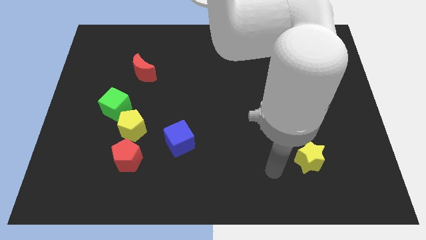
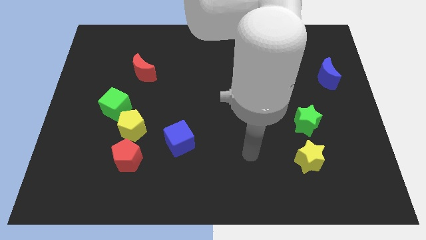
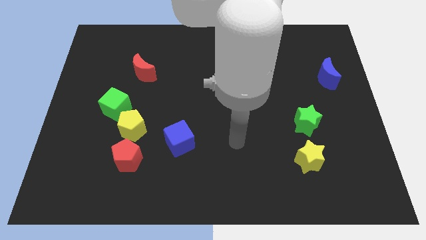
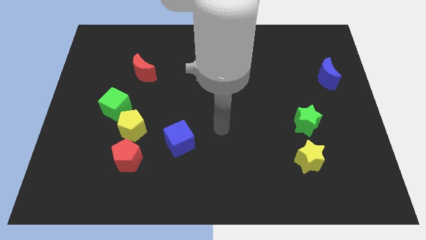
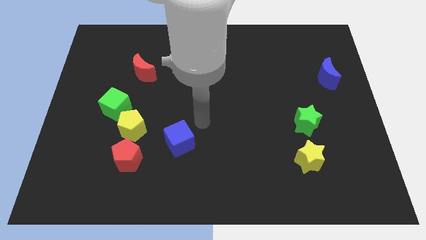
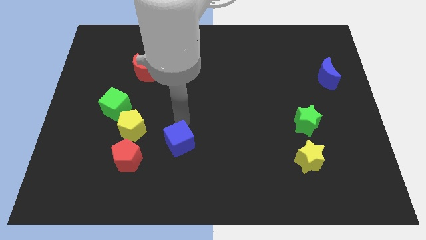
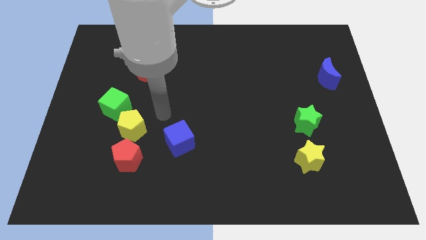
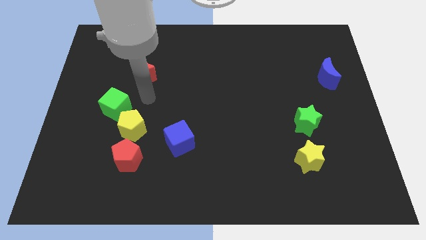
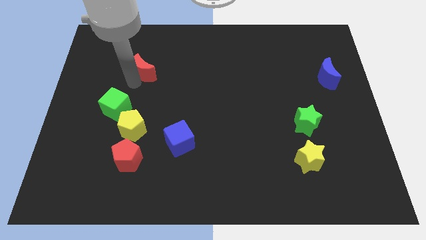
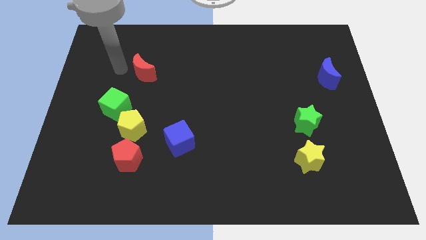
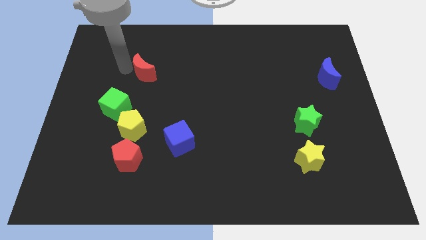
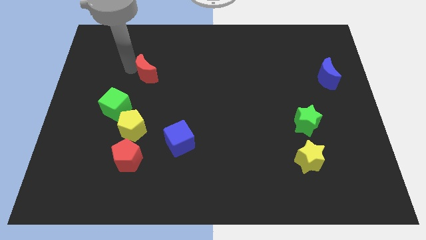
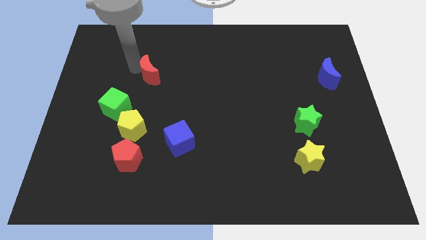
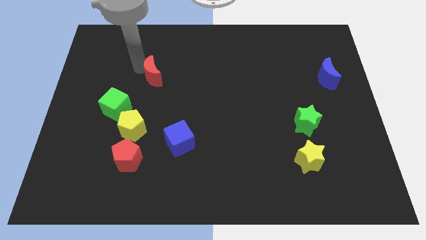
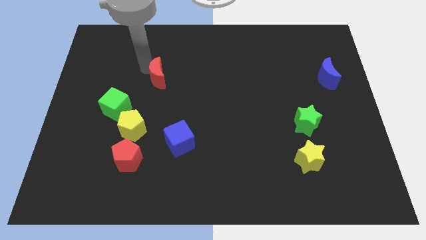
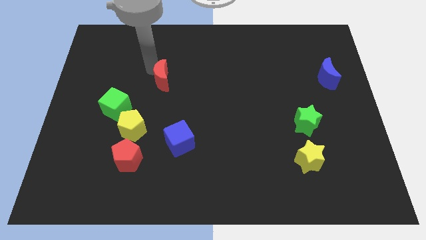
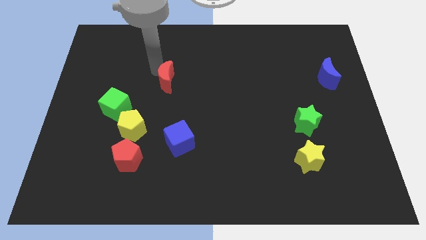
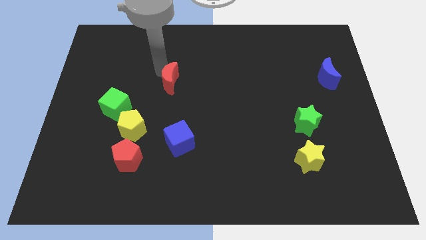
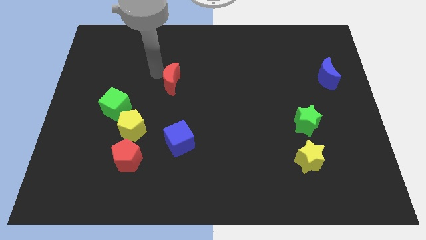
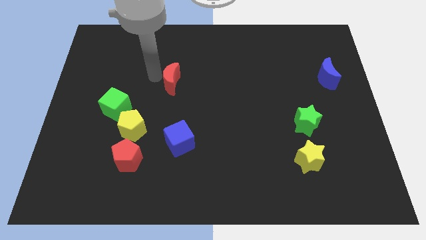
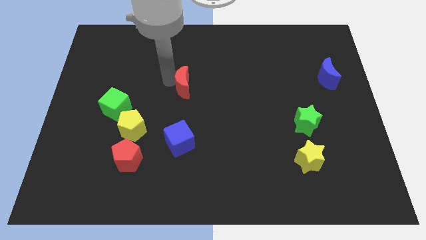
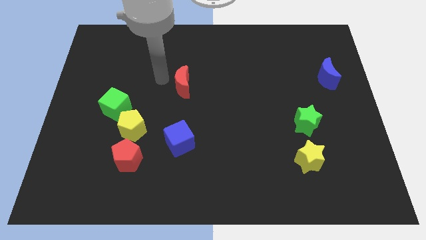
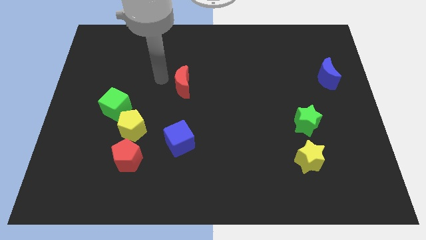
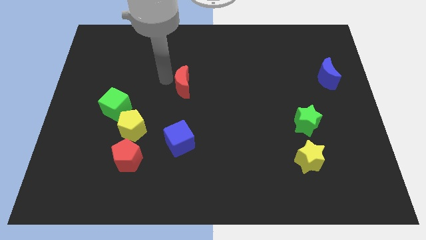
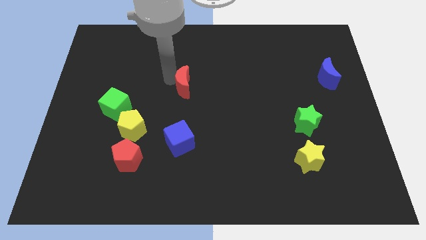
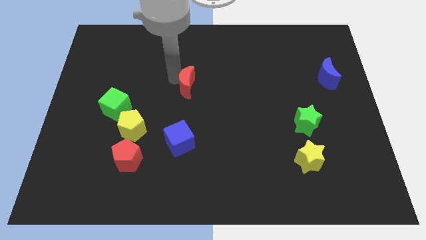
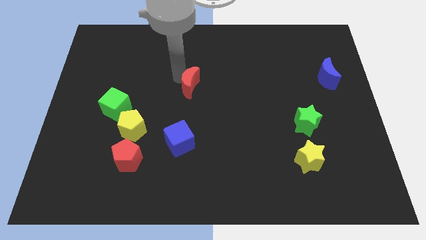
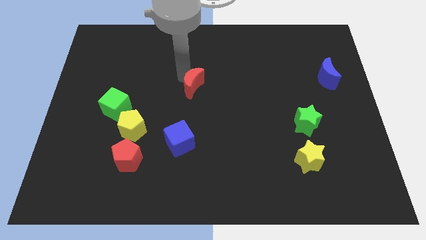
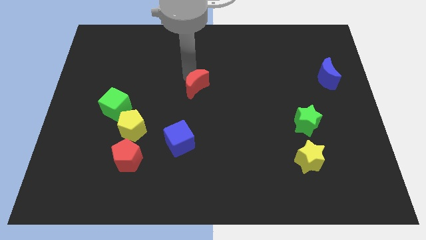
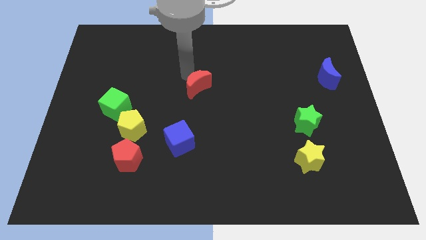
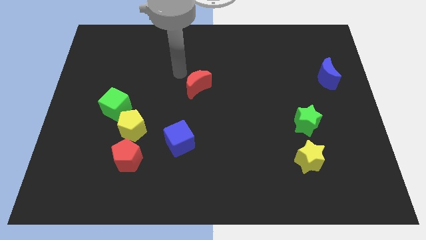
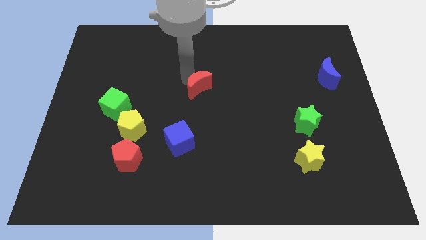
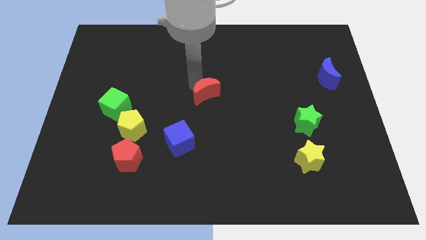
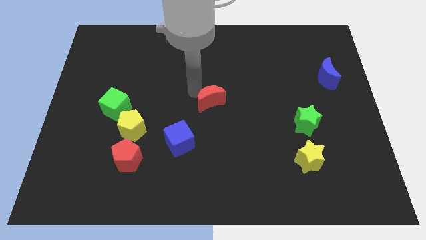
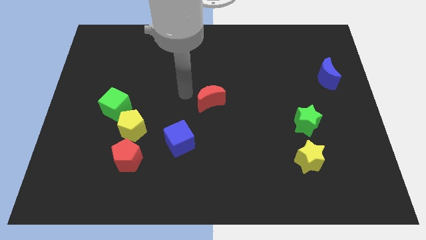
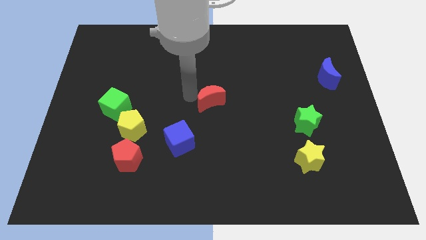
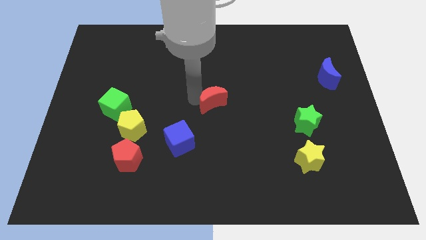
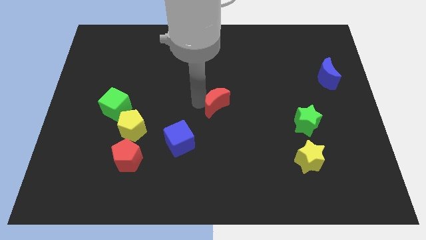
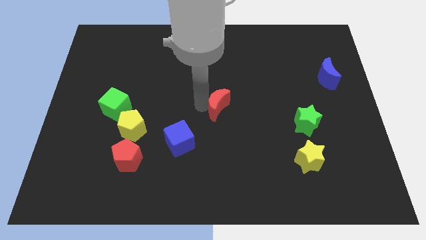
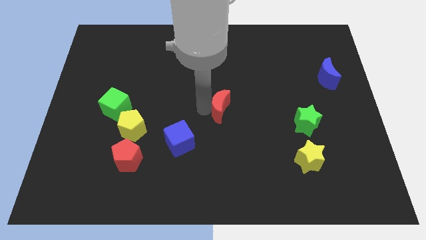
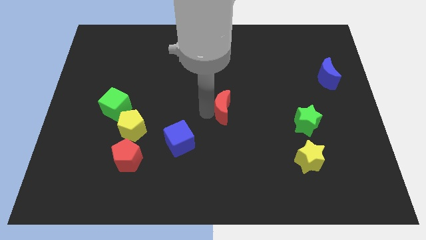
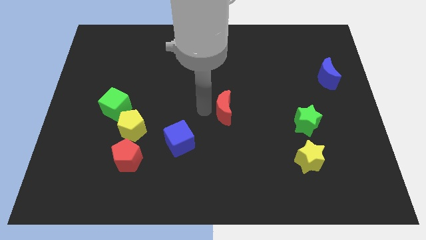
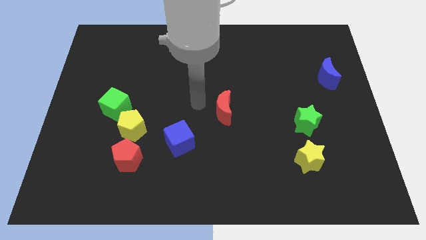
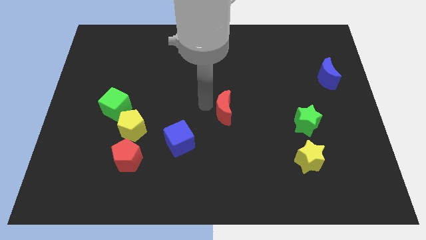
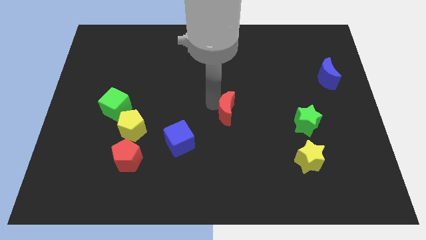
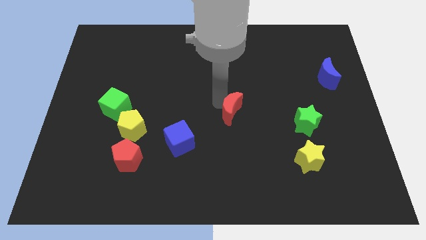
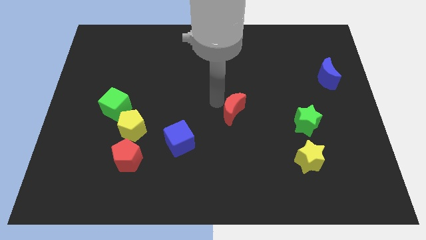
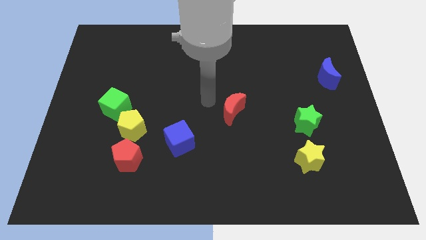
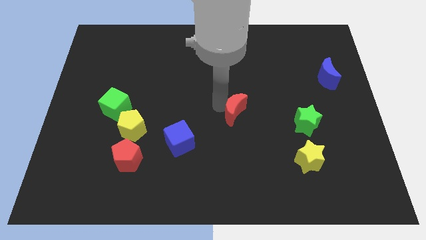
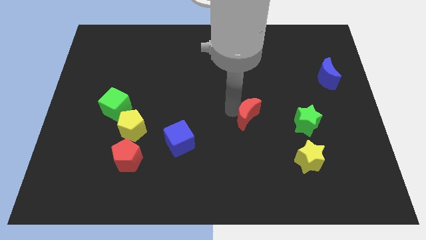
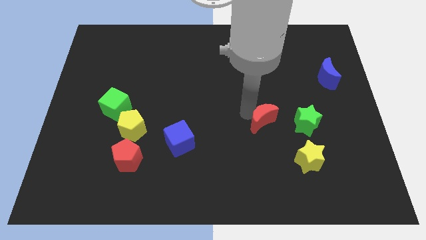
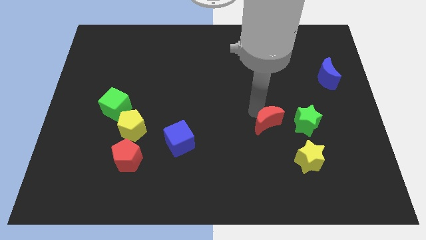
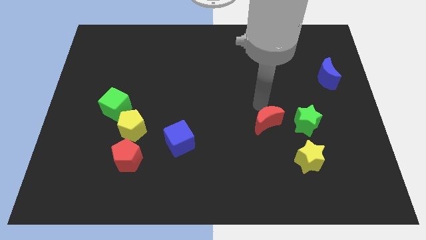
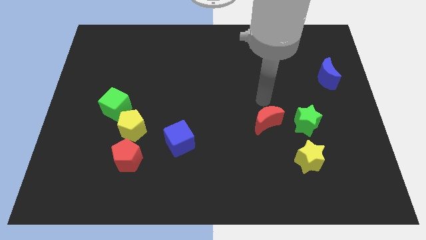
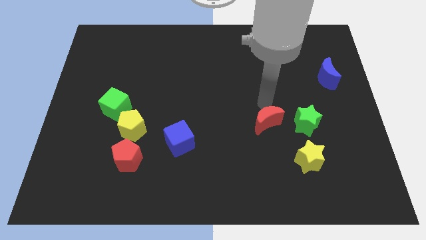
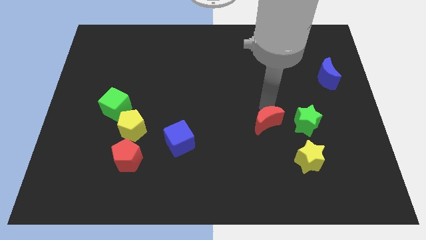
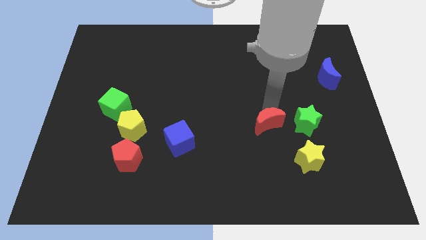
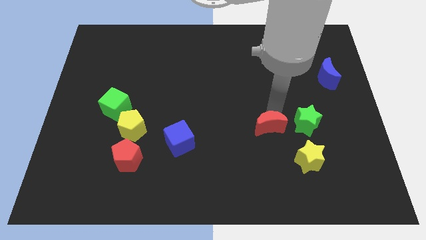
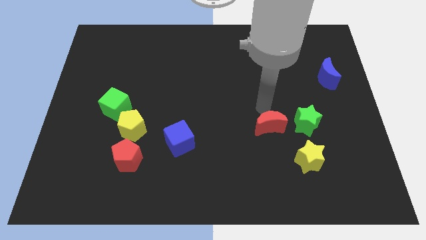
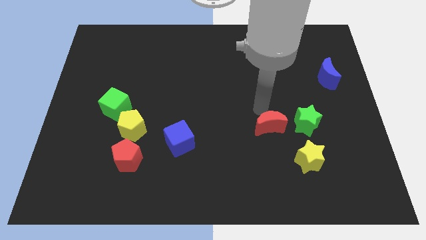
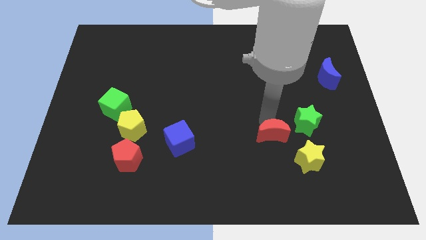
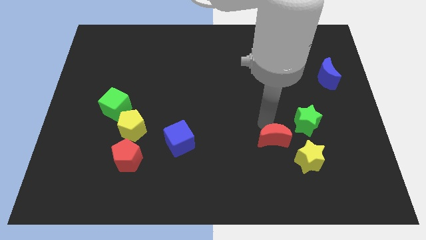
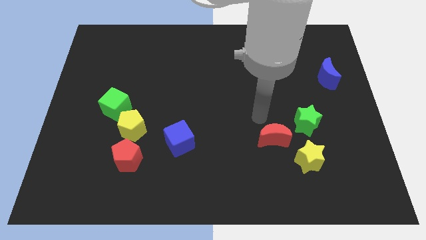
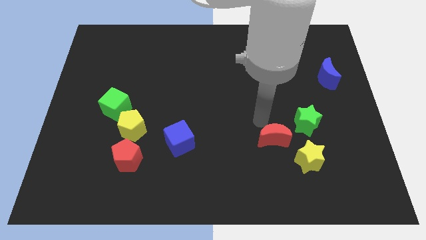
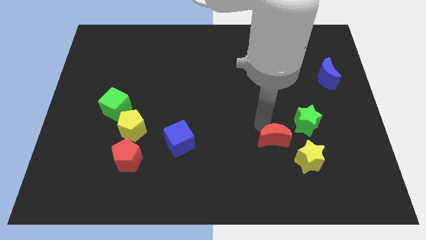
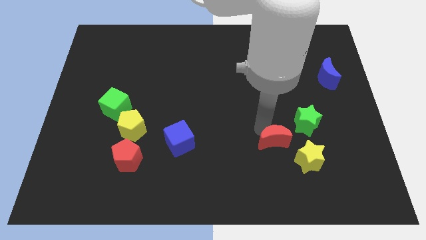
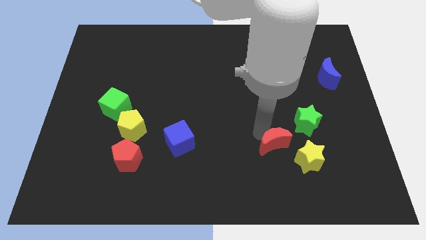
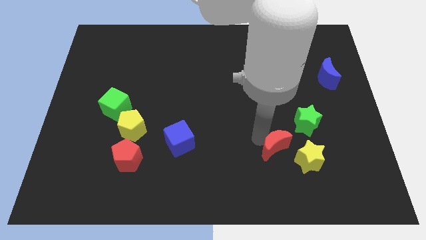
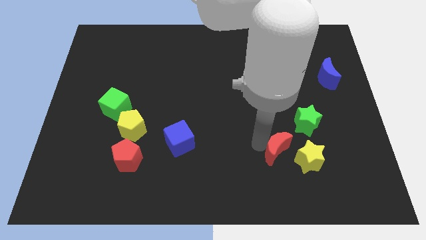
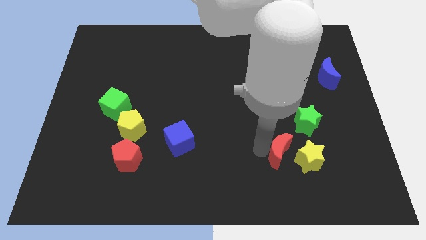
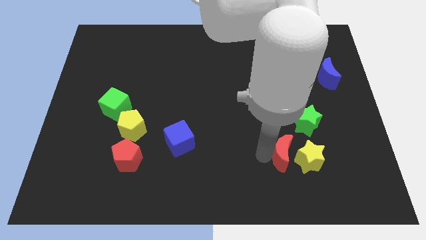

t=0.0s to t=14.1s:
put the red moon to the yellow star
